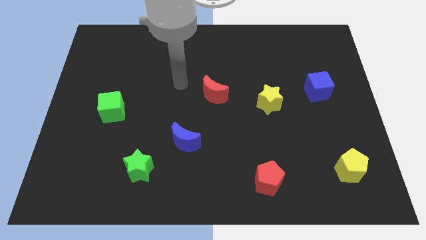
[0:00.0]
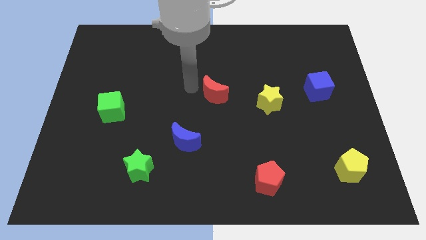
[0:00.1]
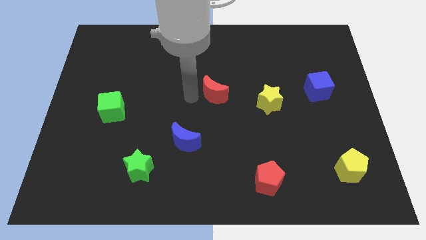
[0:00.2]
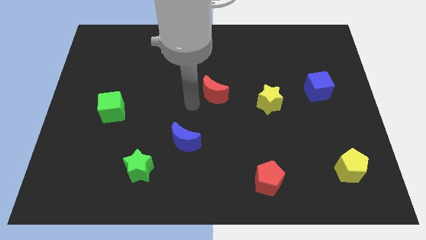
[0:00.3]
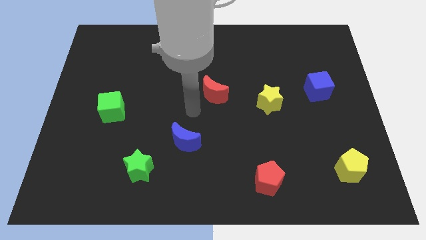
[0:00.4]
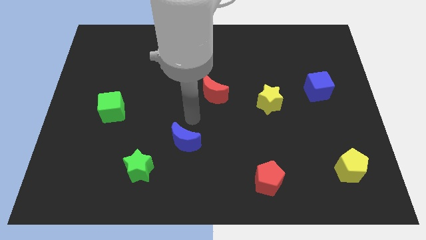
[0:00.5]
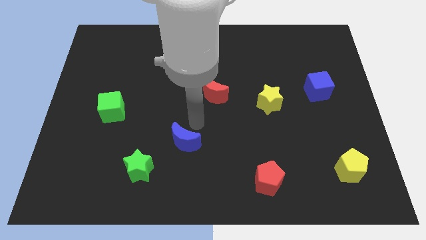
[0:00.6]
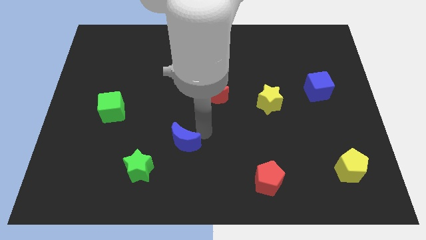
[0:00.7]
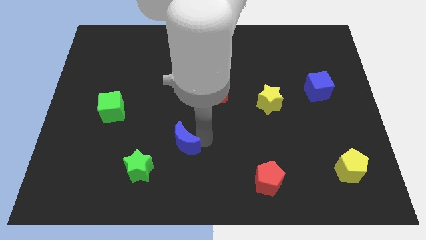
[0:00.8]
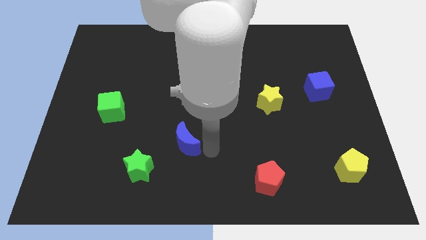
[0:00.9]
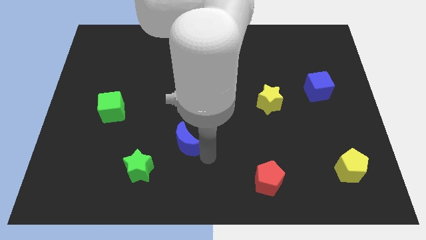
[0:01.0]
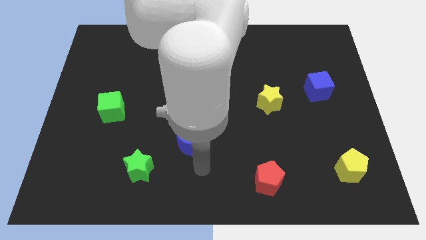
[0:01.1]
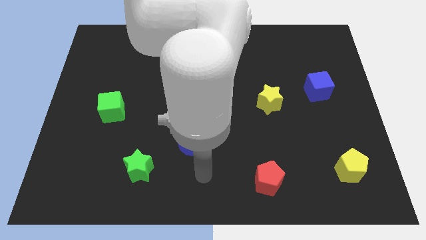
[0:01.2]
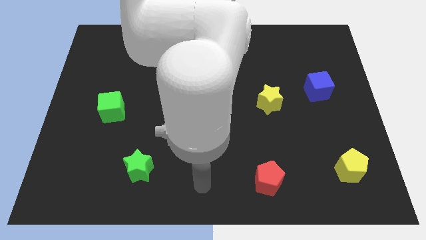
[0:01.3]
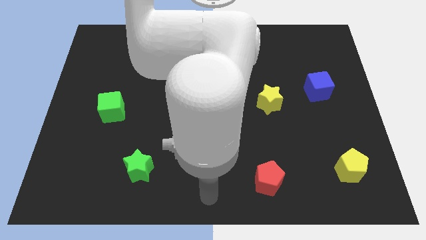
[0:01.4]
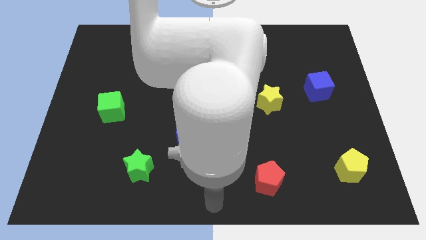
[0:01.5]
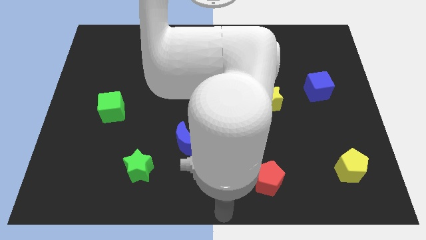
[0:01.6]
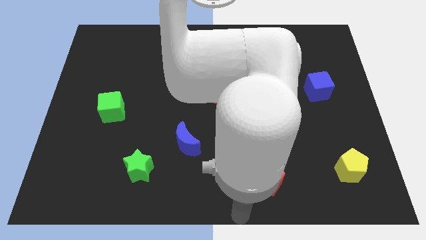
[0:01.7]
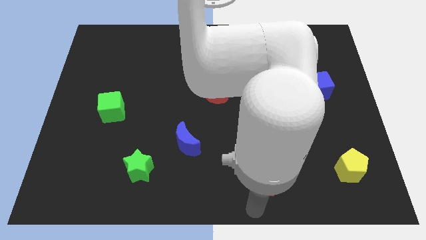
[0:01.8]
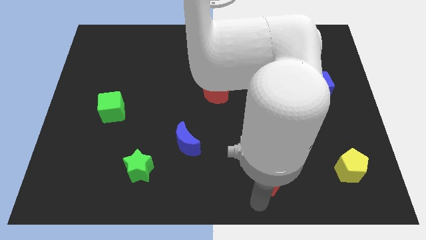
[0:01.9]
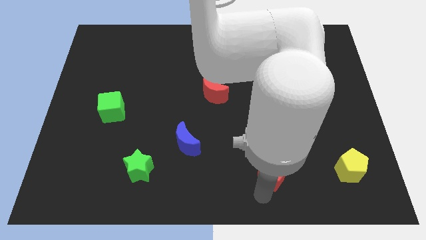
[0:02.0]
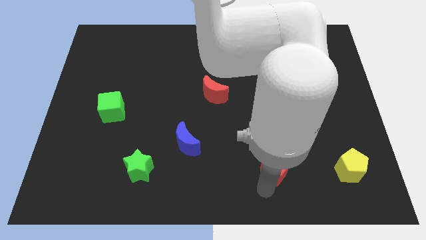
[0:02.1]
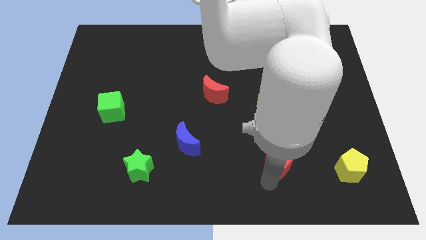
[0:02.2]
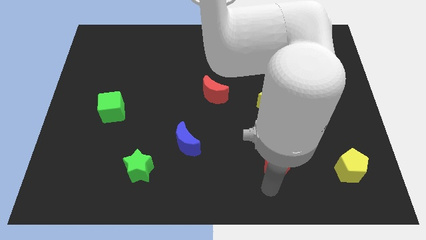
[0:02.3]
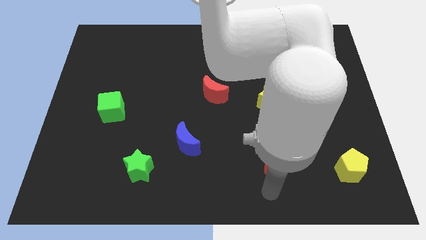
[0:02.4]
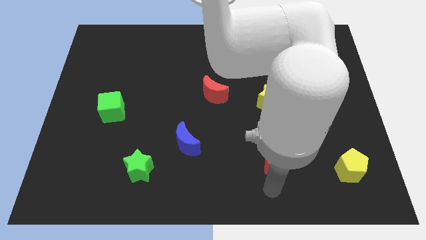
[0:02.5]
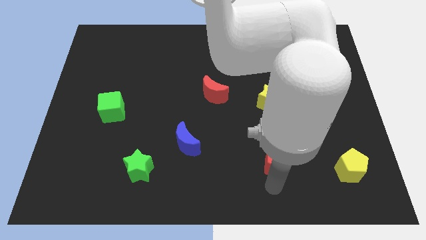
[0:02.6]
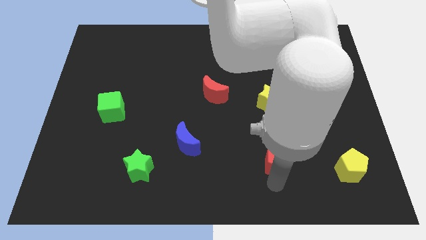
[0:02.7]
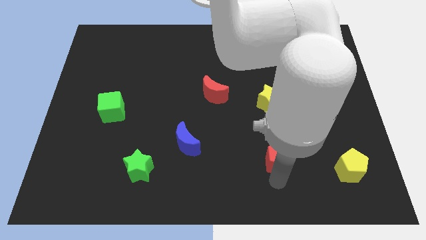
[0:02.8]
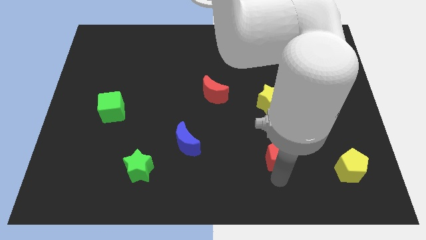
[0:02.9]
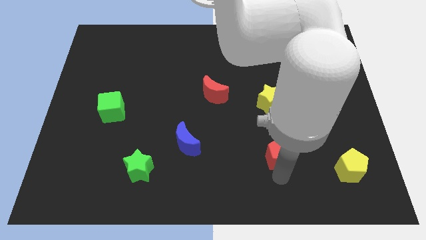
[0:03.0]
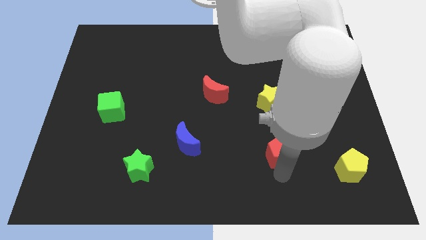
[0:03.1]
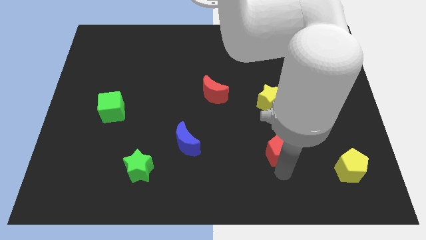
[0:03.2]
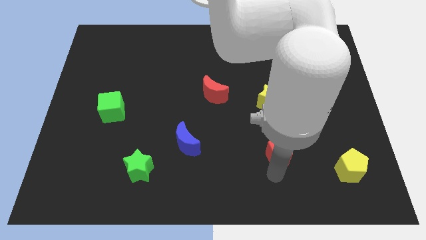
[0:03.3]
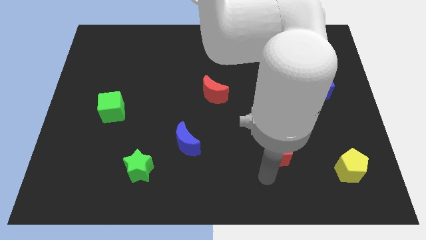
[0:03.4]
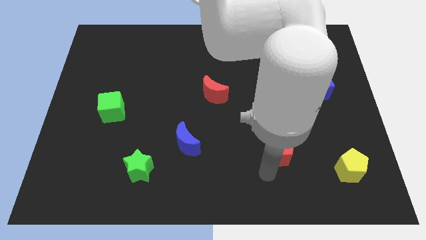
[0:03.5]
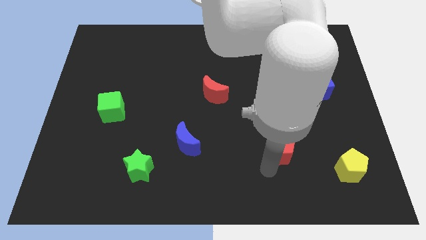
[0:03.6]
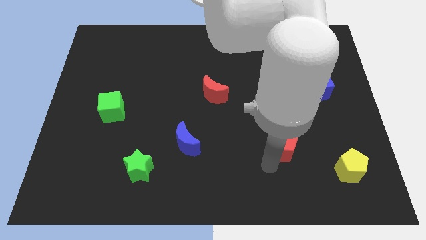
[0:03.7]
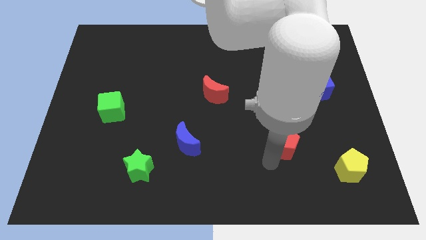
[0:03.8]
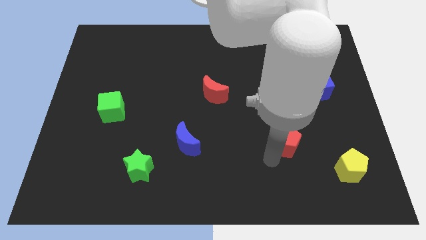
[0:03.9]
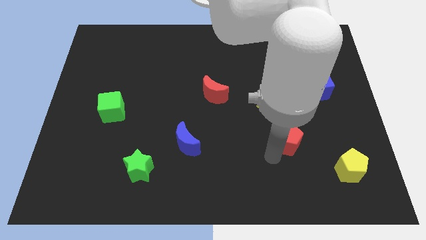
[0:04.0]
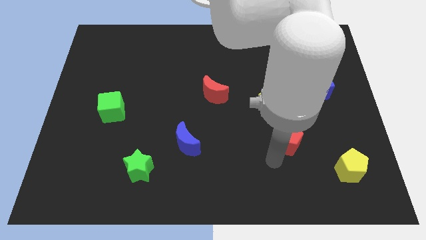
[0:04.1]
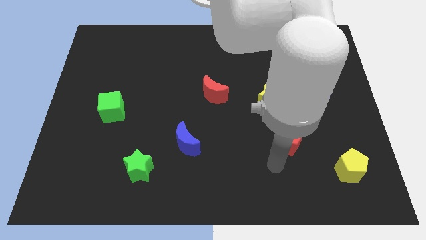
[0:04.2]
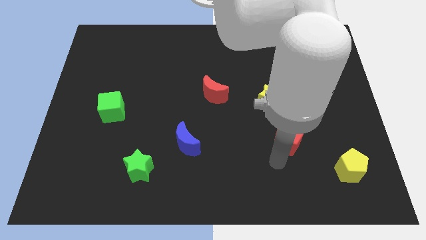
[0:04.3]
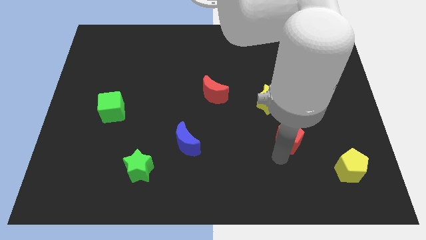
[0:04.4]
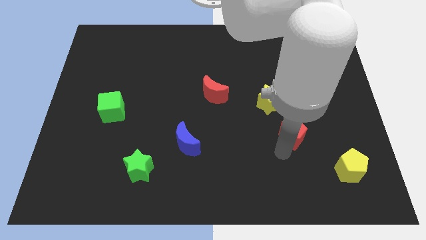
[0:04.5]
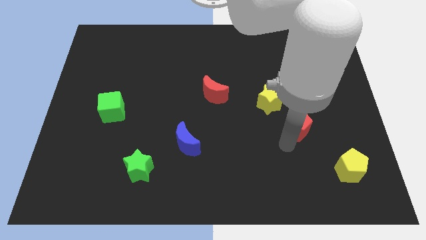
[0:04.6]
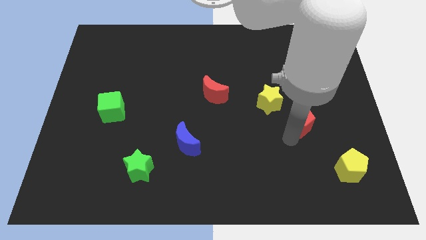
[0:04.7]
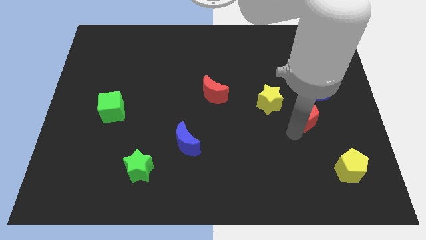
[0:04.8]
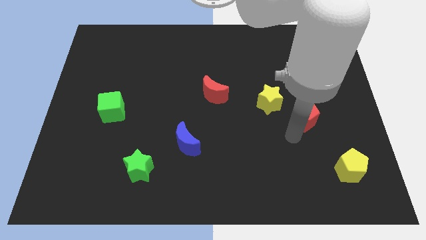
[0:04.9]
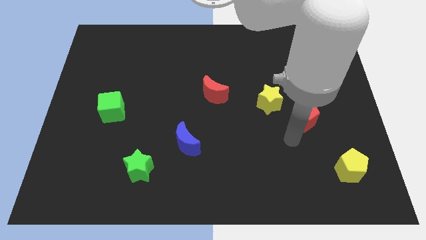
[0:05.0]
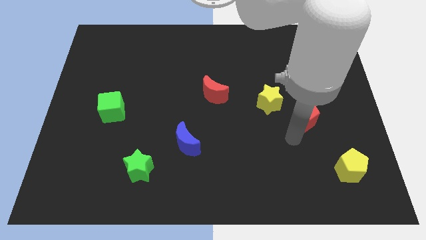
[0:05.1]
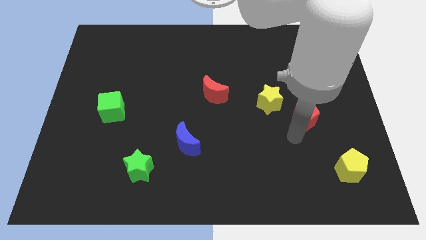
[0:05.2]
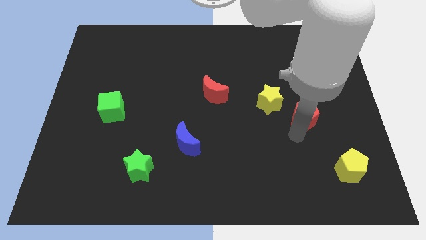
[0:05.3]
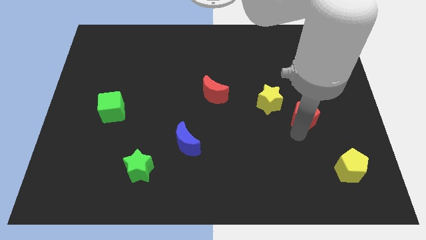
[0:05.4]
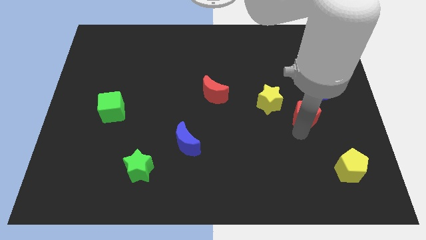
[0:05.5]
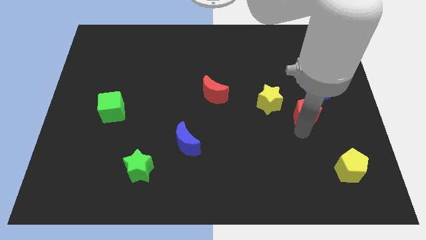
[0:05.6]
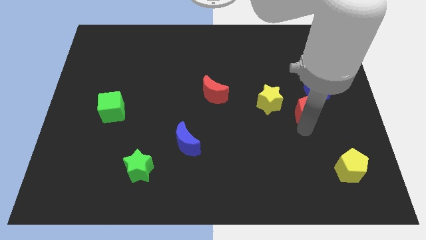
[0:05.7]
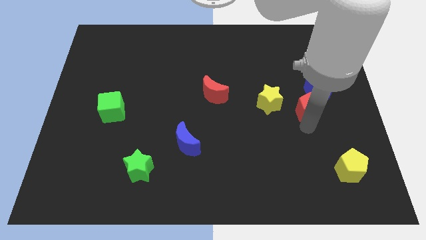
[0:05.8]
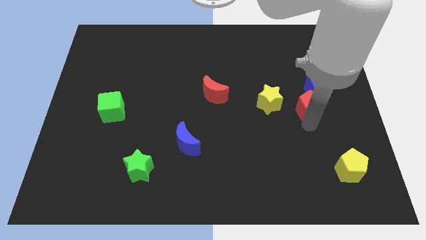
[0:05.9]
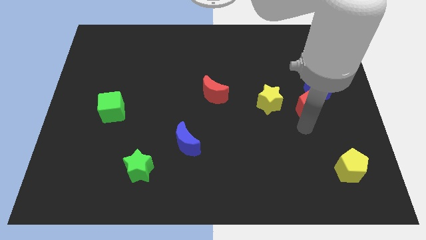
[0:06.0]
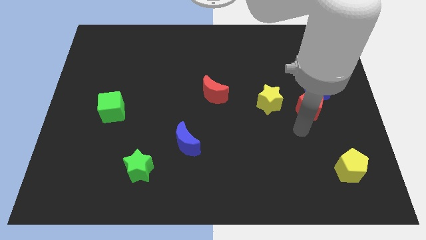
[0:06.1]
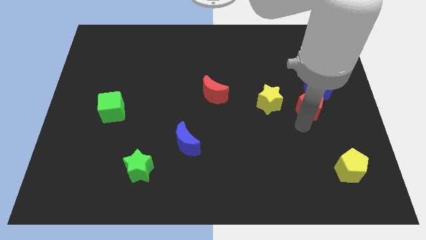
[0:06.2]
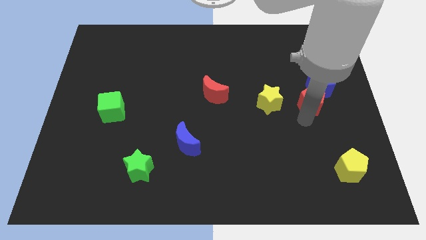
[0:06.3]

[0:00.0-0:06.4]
put the red pentagon next to the blue cube

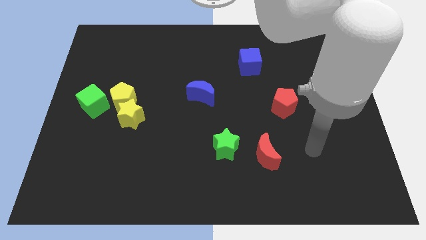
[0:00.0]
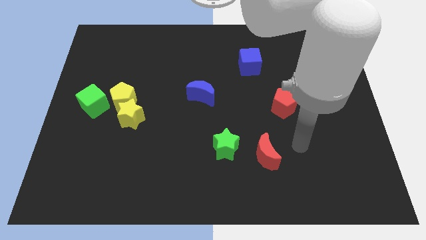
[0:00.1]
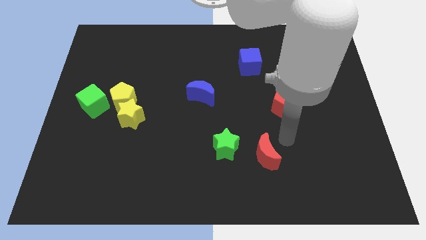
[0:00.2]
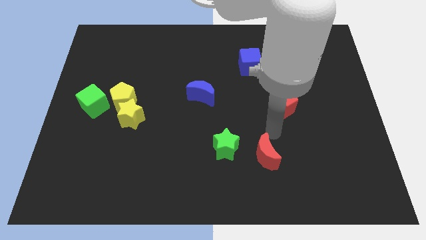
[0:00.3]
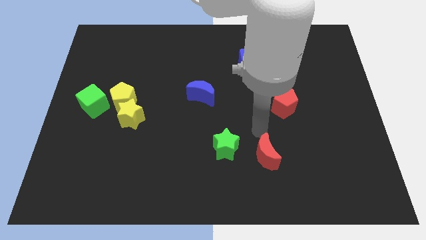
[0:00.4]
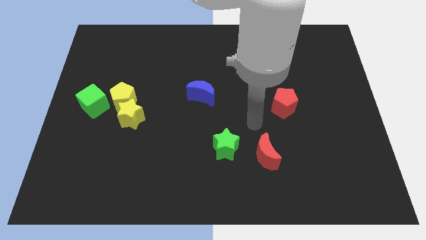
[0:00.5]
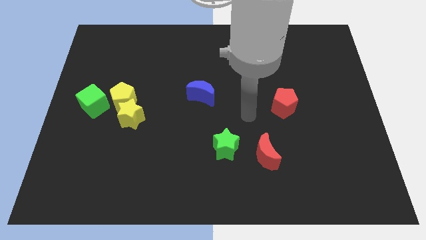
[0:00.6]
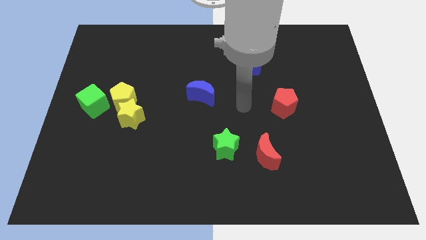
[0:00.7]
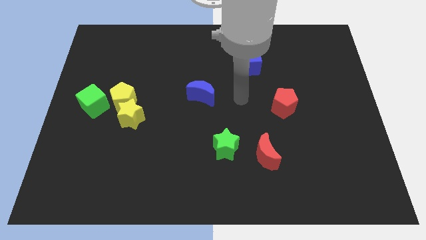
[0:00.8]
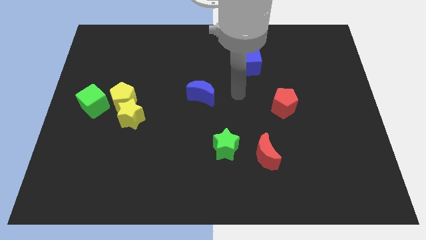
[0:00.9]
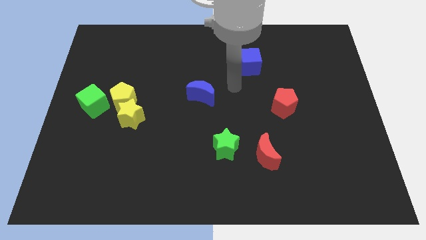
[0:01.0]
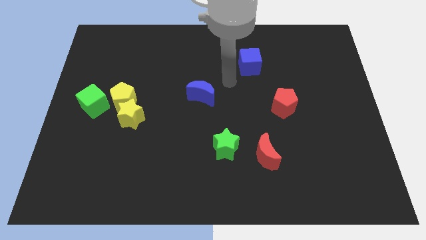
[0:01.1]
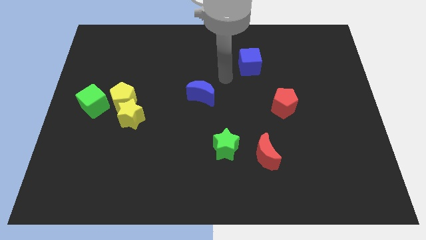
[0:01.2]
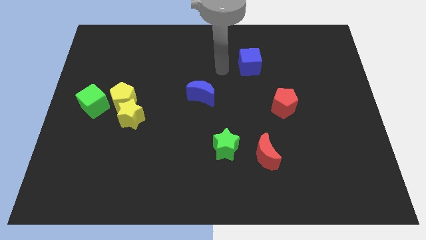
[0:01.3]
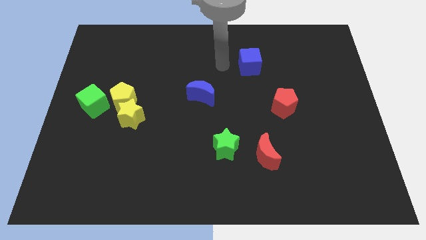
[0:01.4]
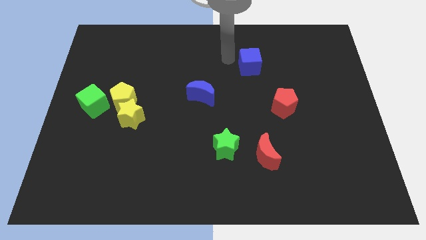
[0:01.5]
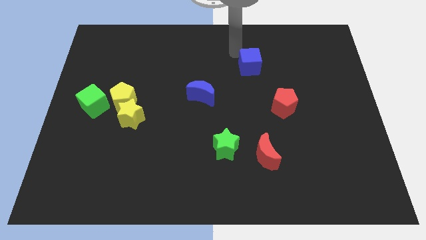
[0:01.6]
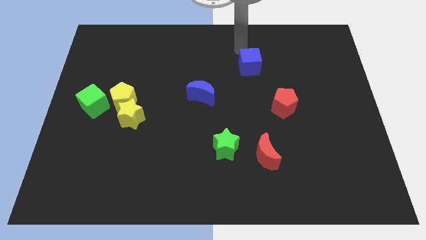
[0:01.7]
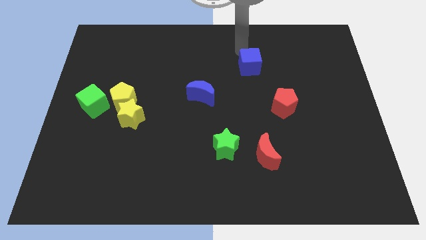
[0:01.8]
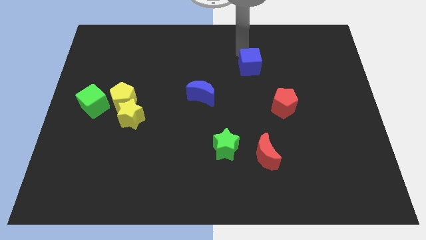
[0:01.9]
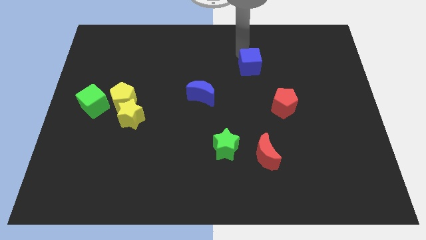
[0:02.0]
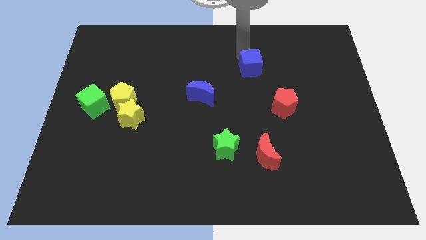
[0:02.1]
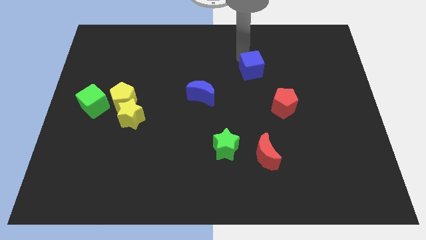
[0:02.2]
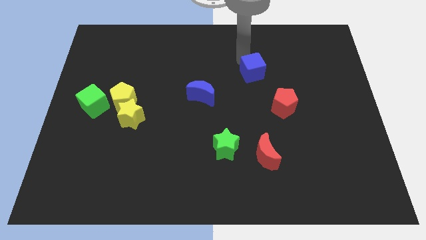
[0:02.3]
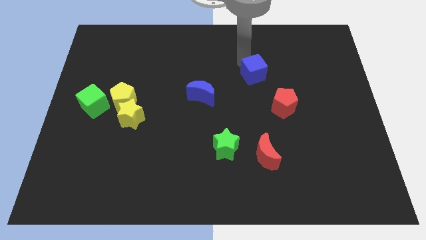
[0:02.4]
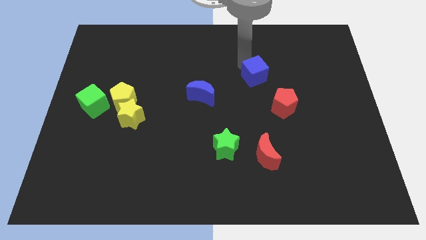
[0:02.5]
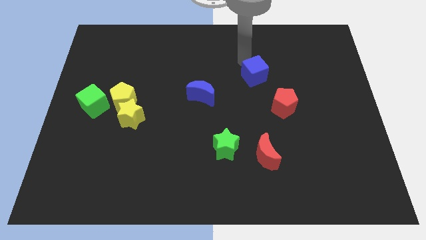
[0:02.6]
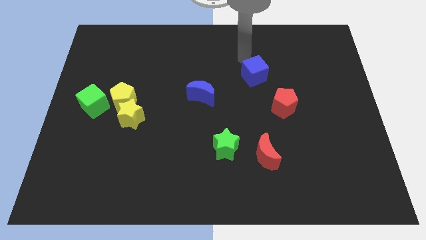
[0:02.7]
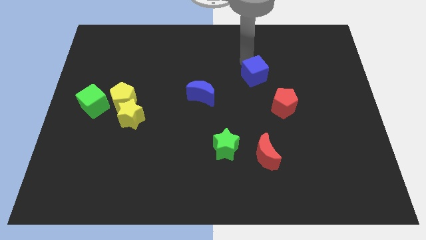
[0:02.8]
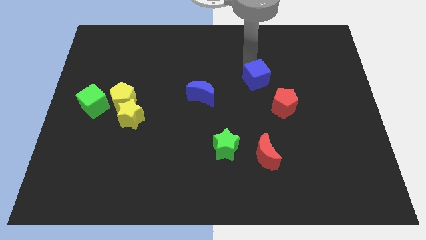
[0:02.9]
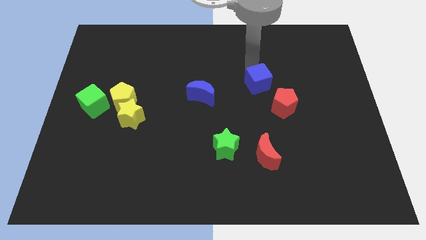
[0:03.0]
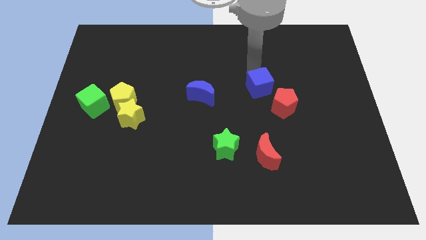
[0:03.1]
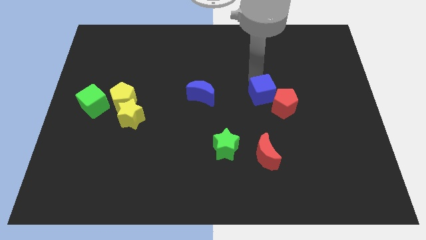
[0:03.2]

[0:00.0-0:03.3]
push the blue cube close to the red pentagon
